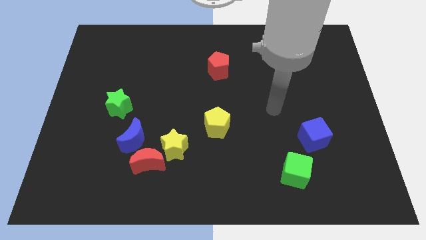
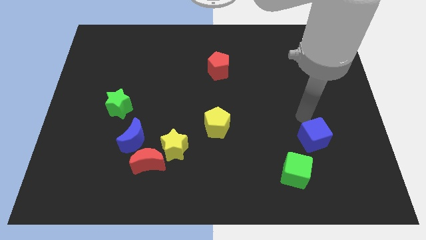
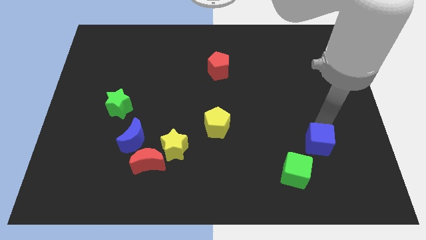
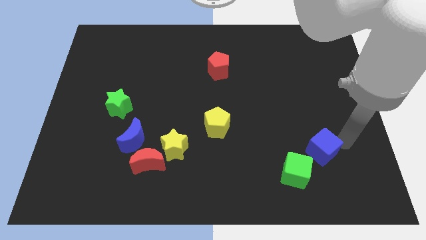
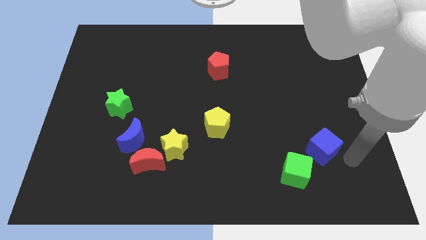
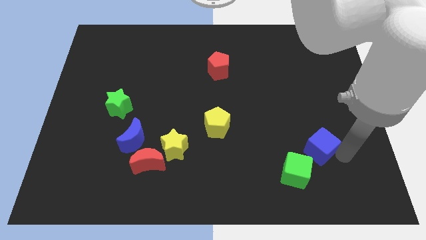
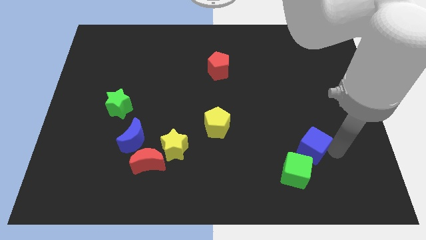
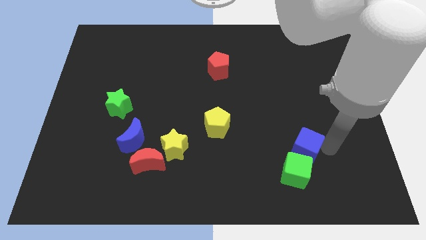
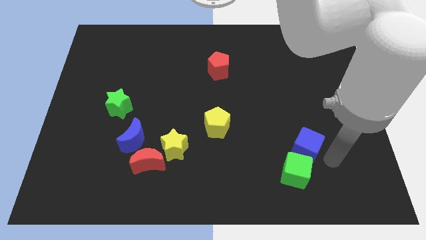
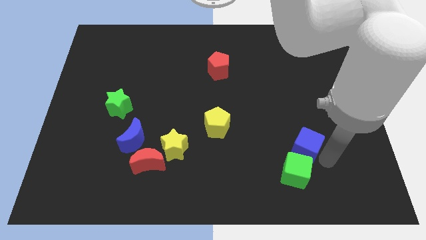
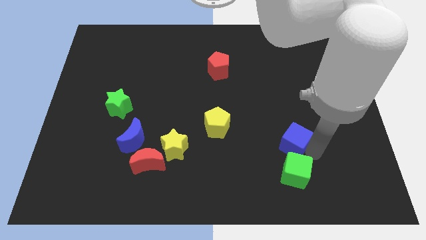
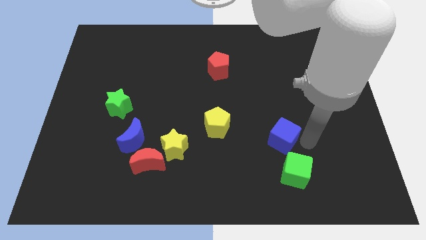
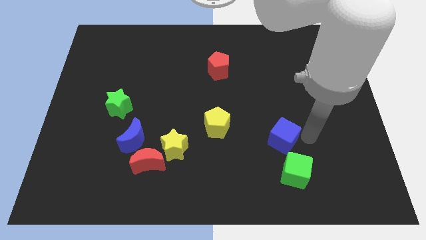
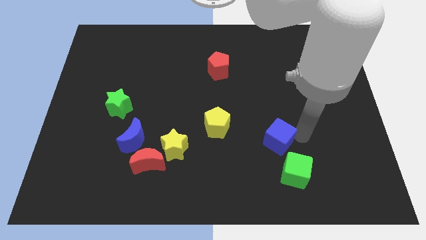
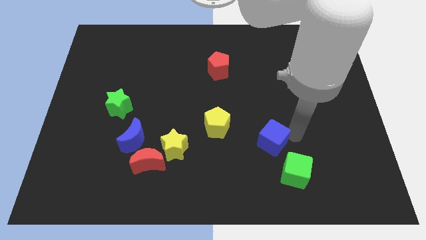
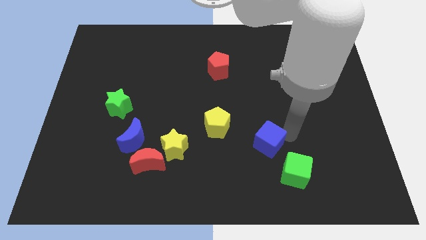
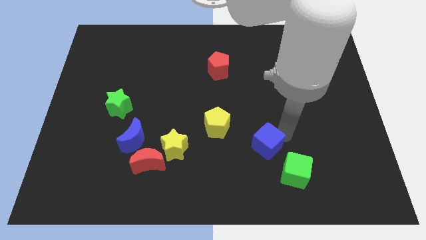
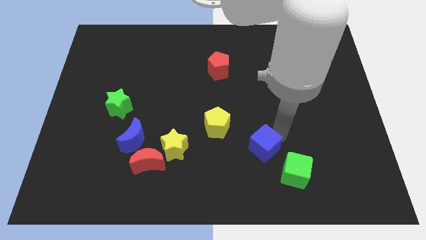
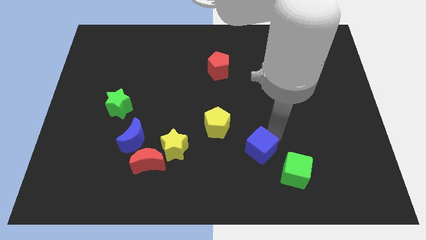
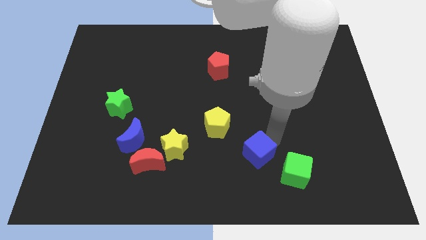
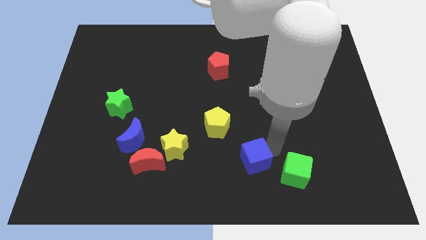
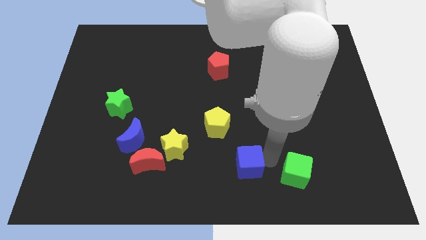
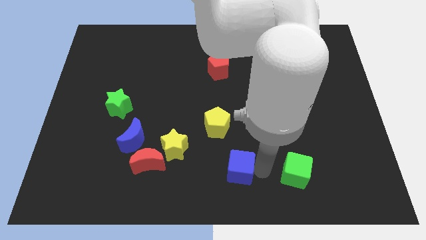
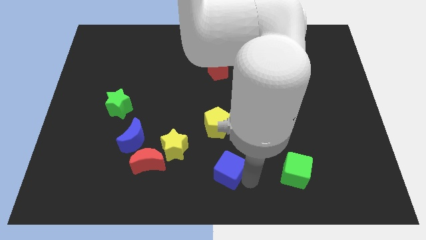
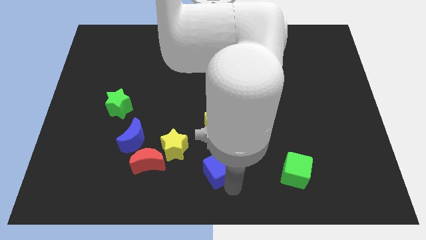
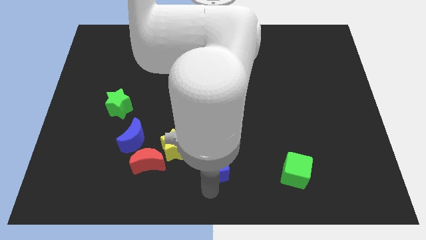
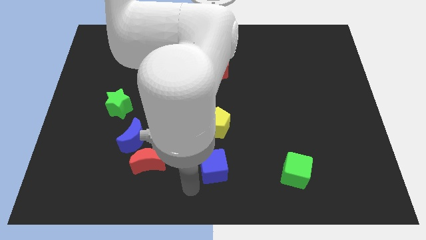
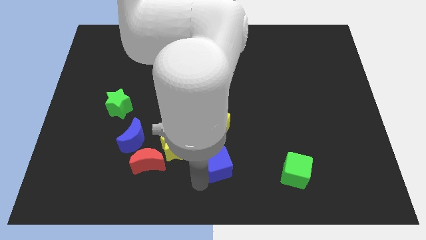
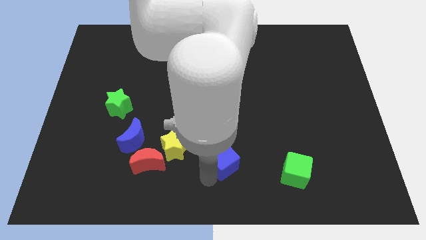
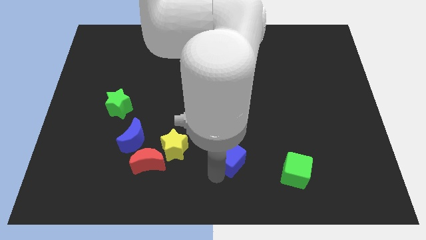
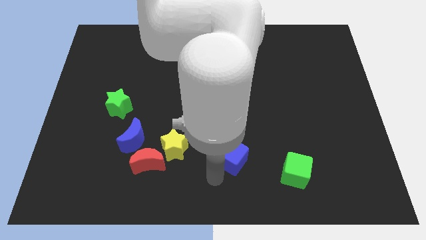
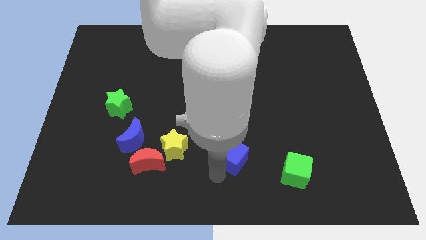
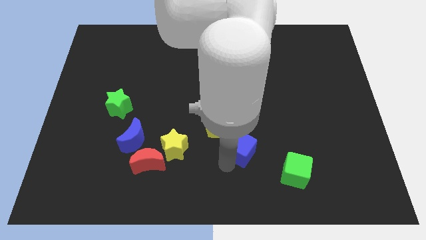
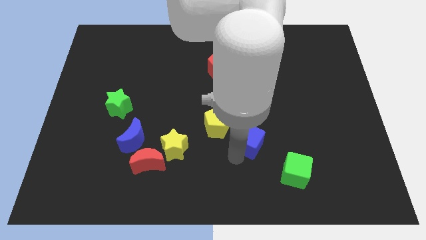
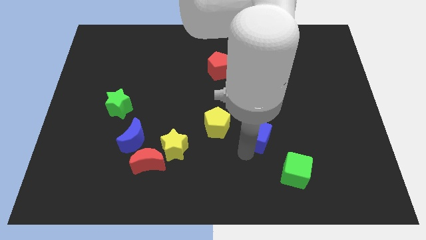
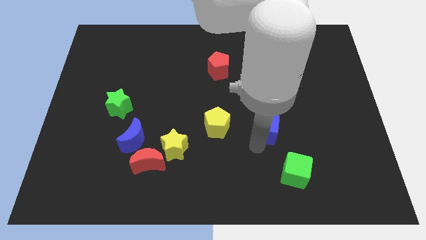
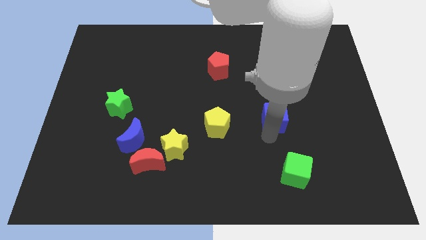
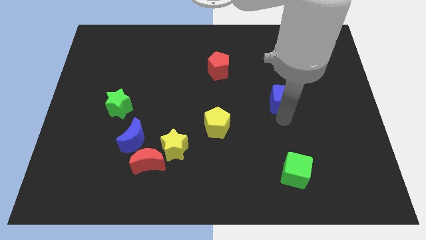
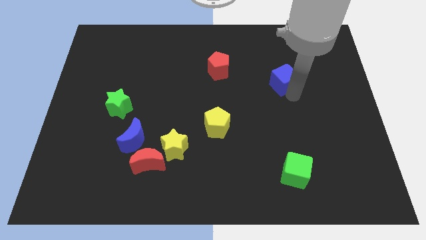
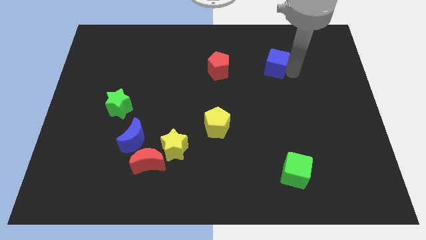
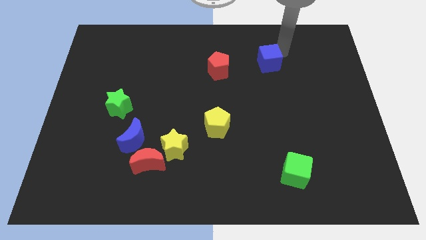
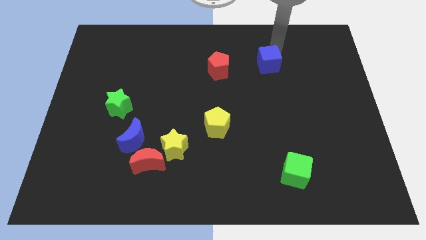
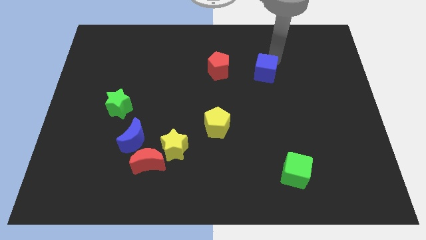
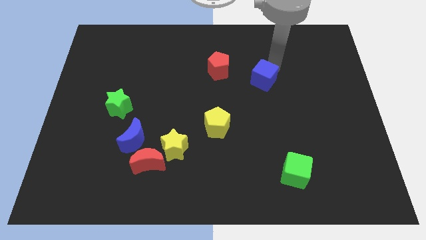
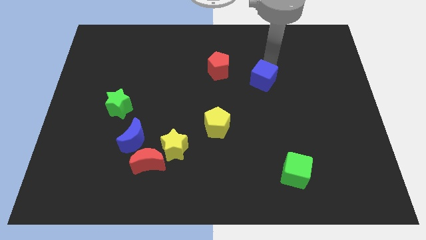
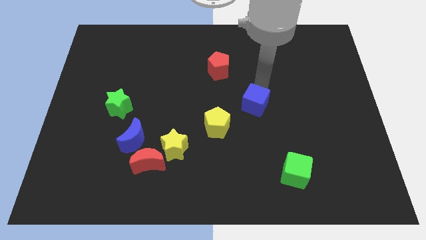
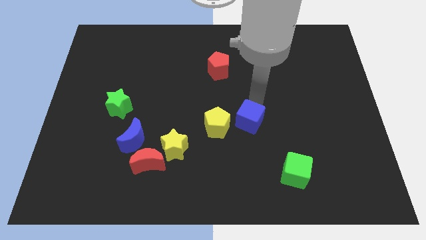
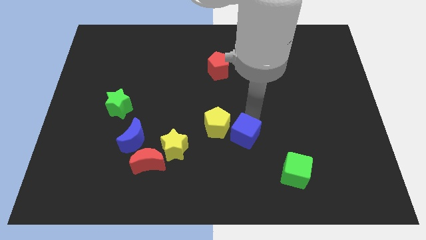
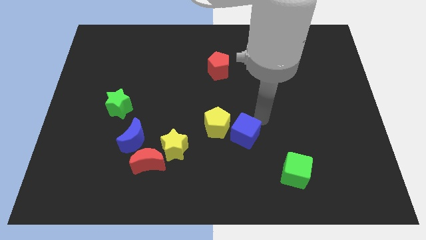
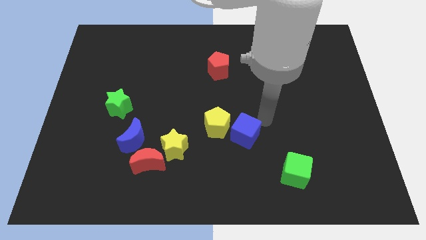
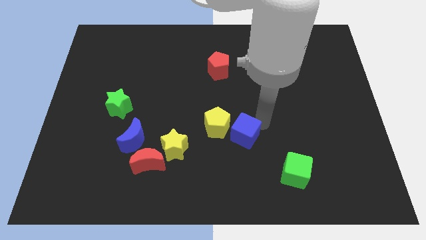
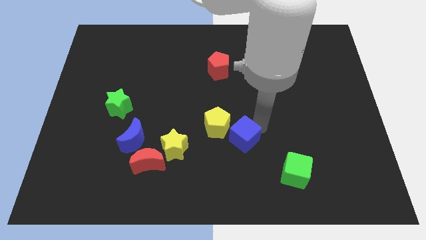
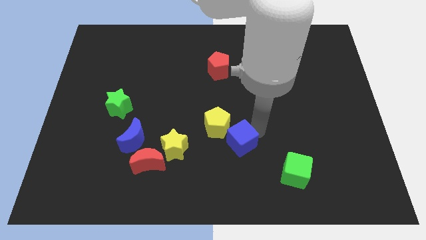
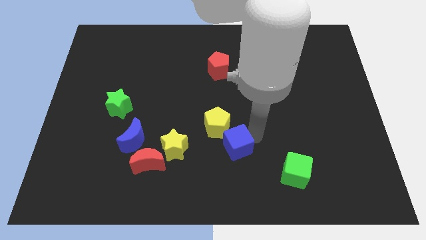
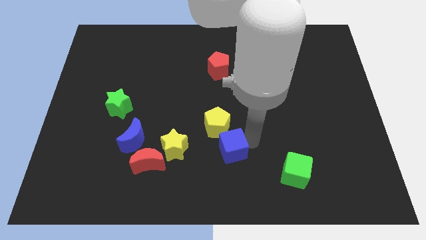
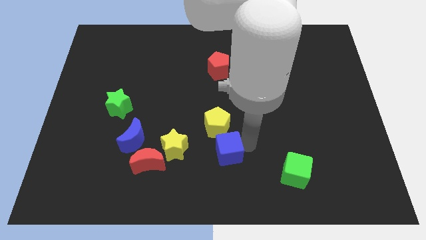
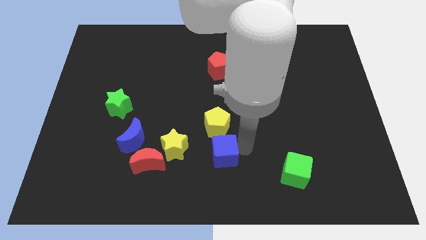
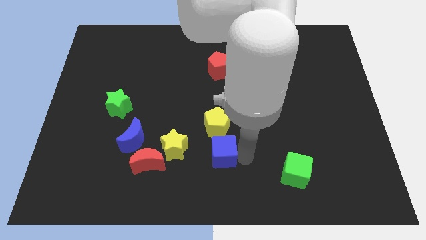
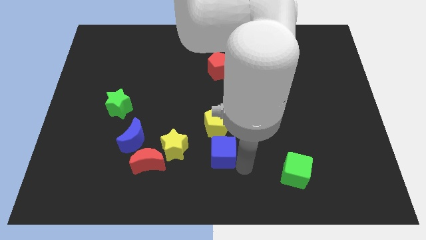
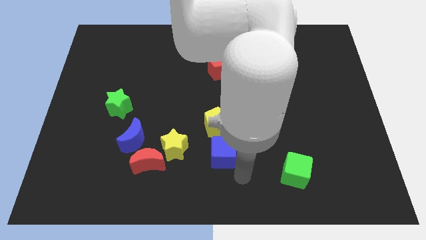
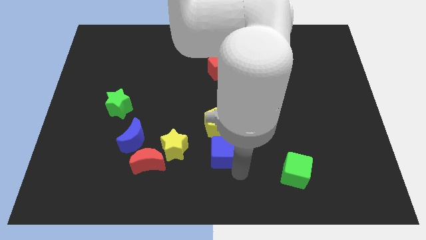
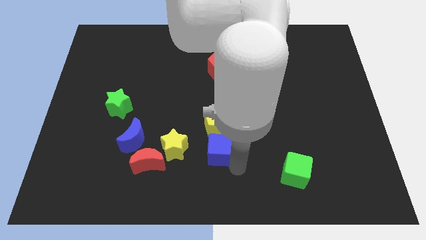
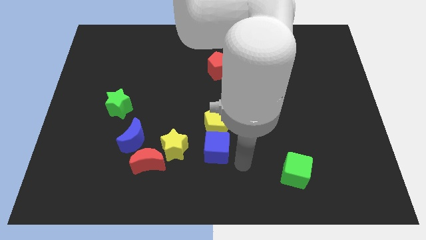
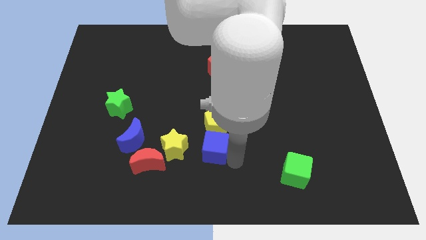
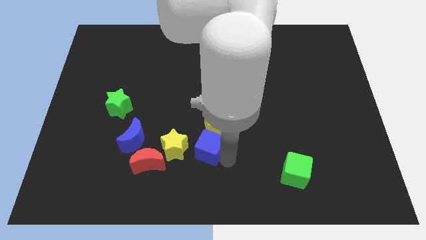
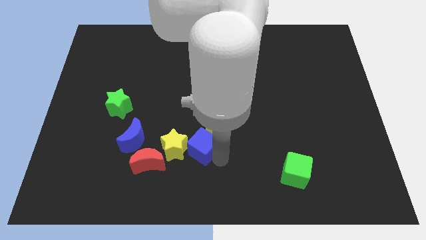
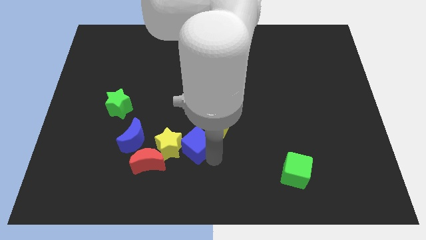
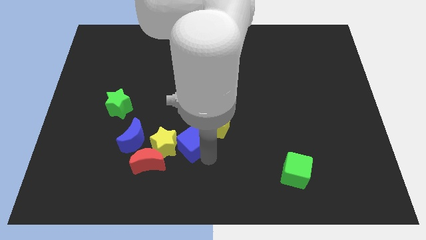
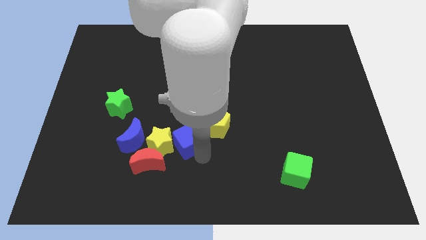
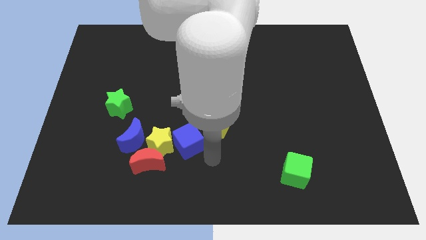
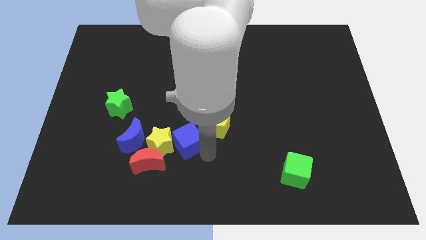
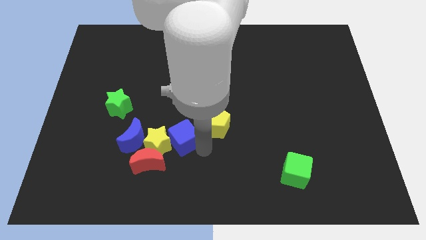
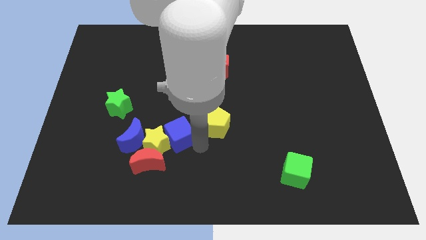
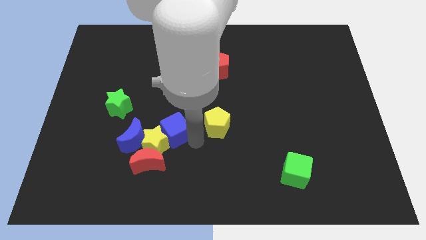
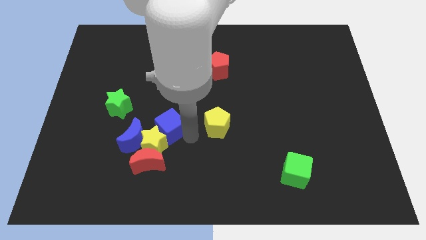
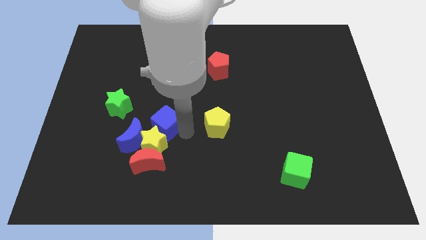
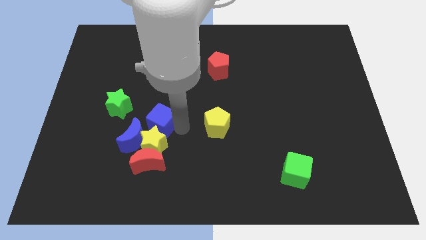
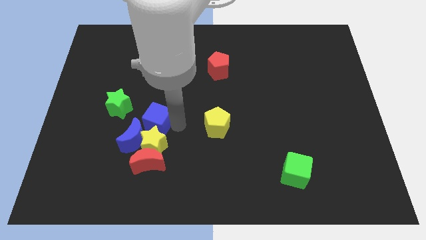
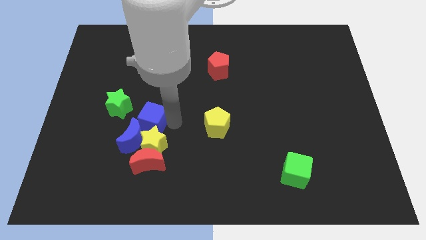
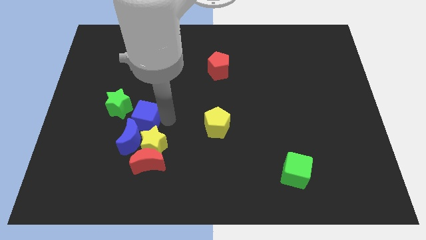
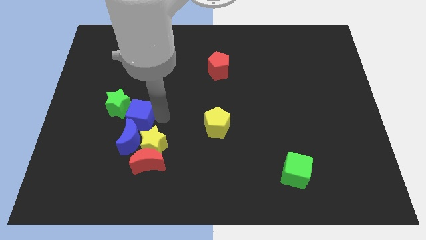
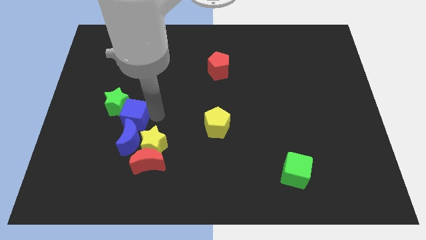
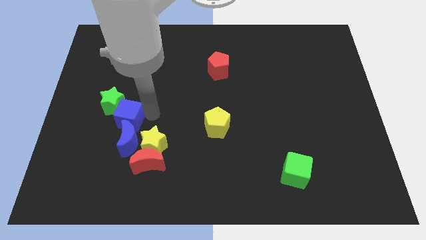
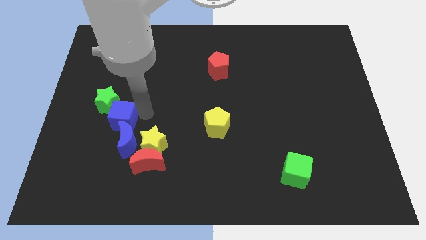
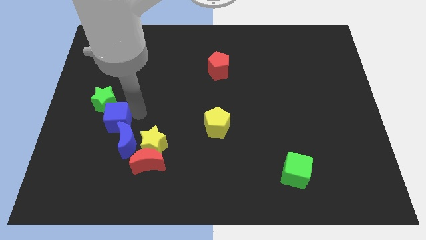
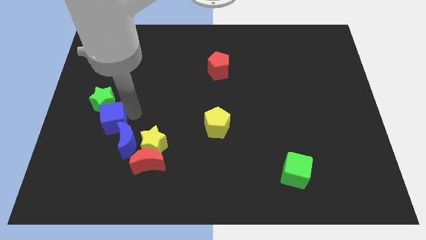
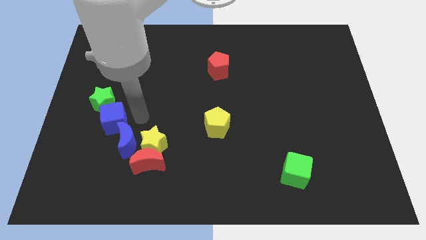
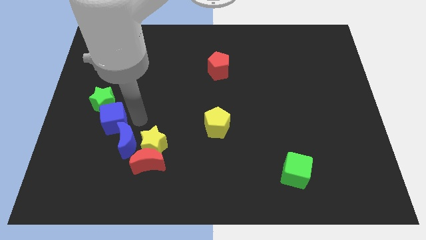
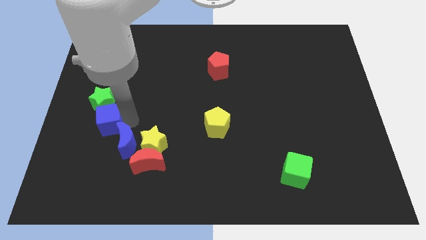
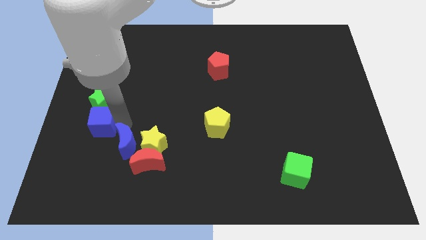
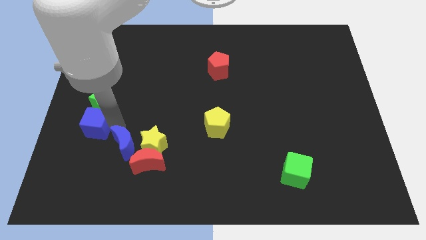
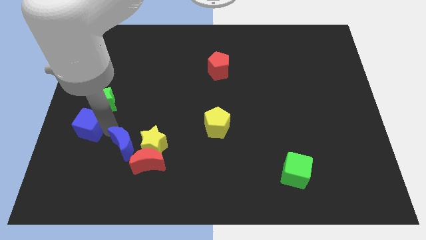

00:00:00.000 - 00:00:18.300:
slide the blue cube to the left side
